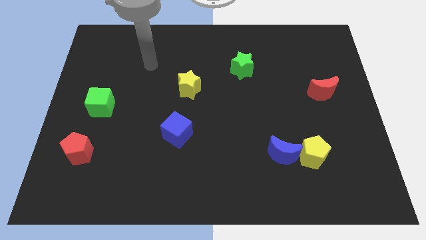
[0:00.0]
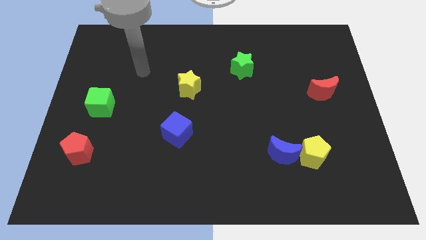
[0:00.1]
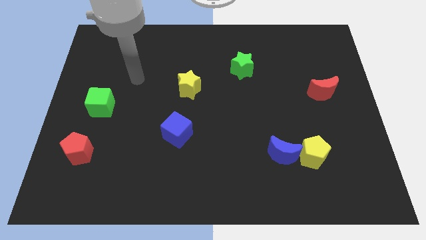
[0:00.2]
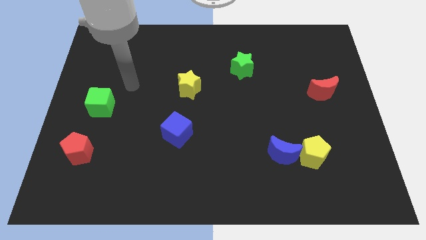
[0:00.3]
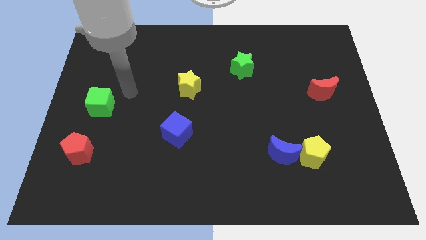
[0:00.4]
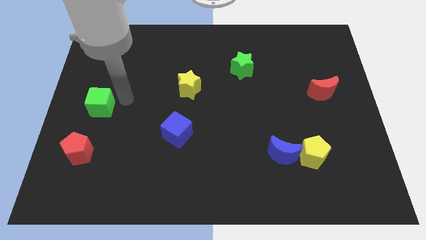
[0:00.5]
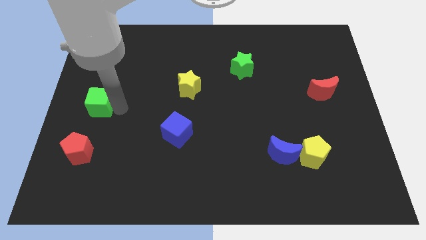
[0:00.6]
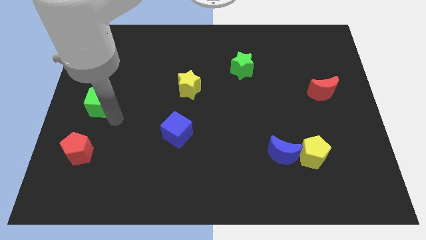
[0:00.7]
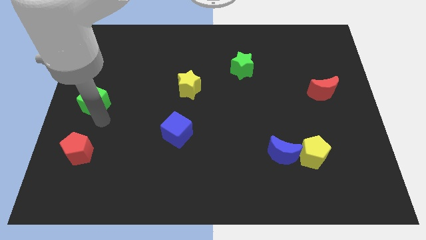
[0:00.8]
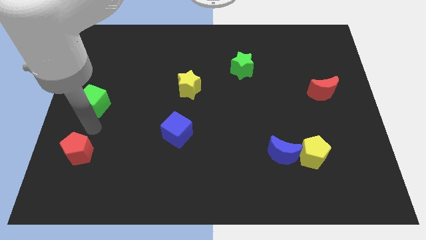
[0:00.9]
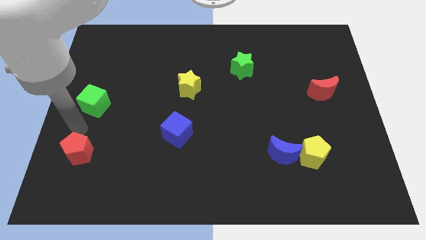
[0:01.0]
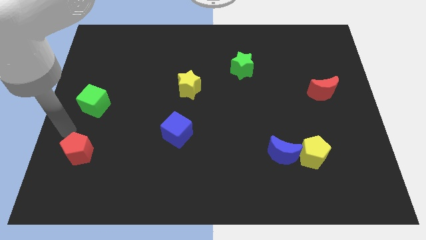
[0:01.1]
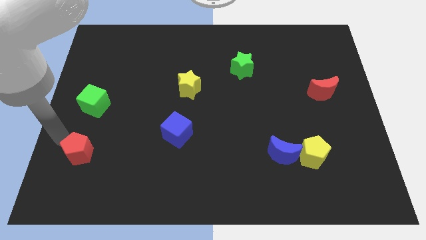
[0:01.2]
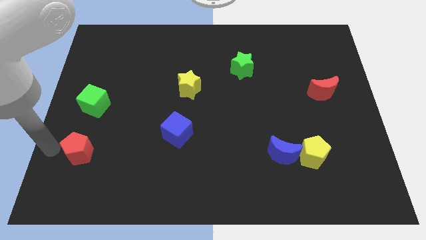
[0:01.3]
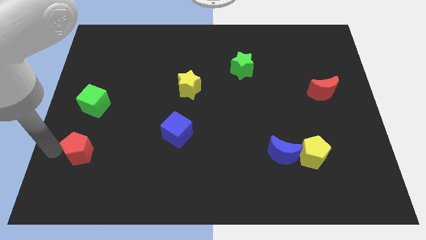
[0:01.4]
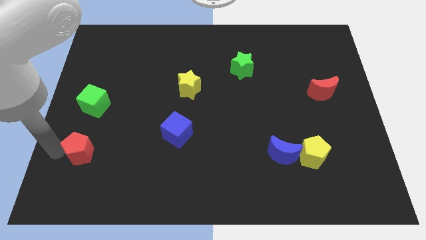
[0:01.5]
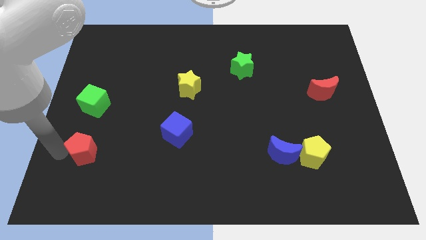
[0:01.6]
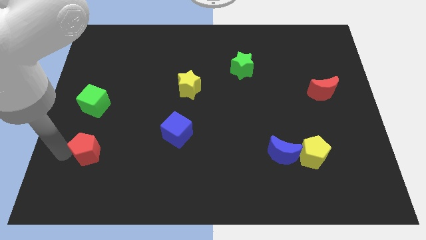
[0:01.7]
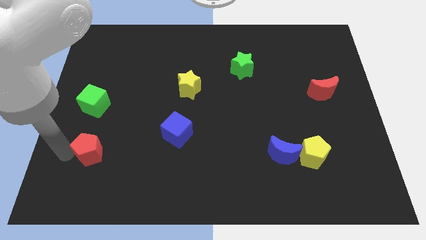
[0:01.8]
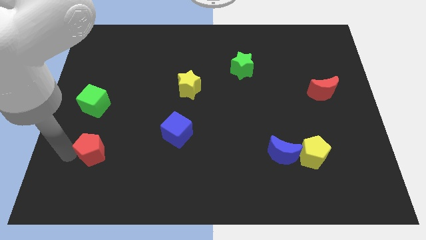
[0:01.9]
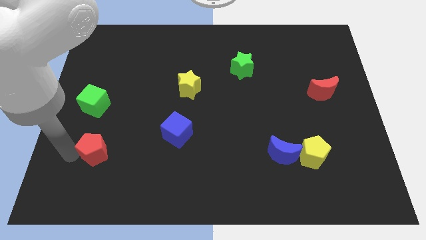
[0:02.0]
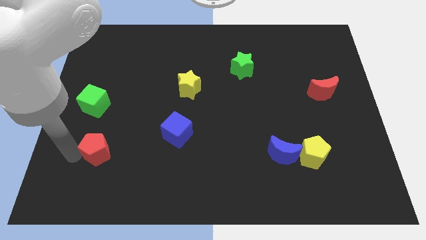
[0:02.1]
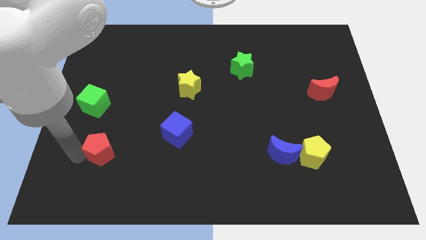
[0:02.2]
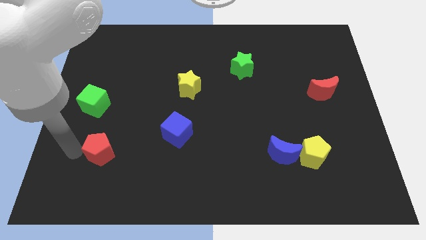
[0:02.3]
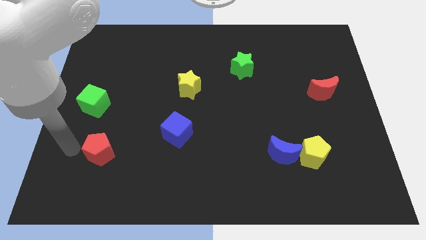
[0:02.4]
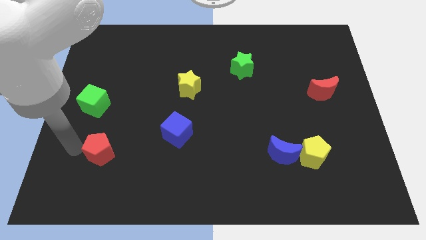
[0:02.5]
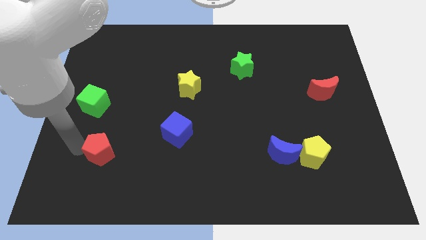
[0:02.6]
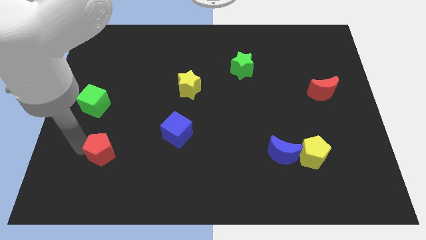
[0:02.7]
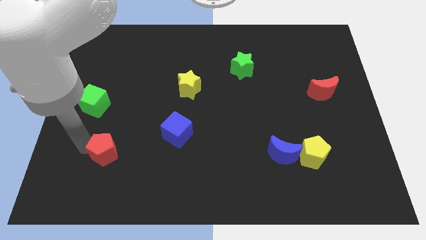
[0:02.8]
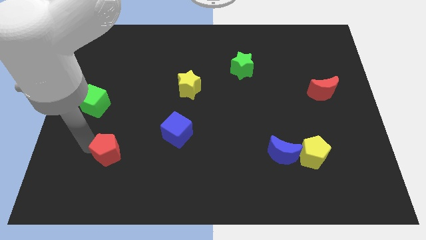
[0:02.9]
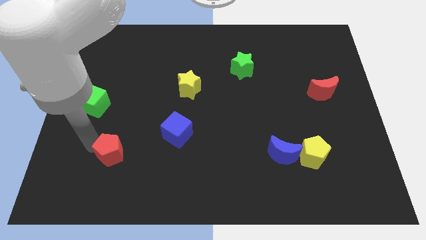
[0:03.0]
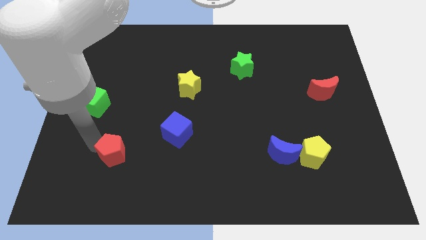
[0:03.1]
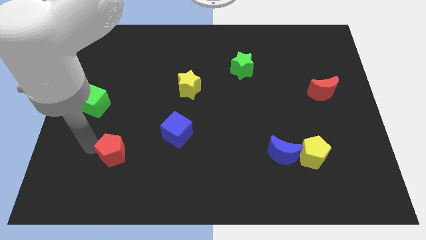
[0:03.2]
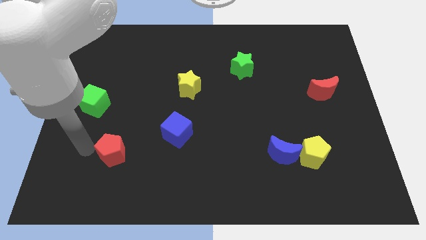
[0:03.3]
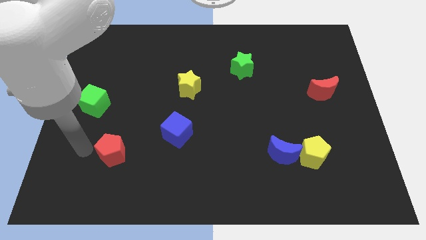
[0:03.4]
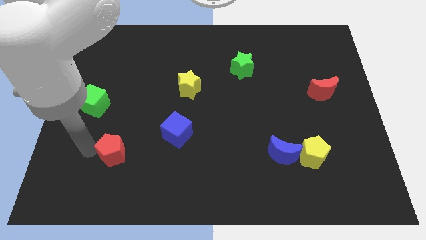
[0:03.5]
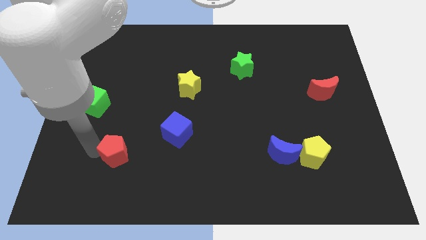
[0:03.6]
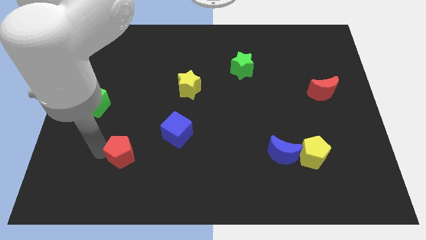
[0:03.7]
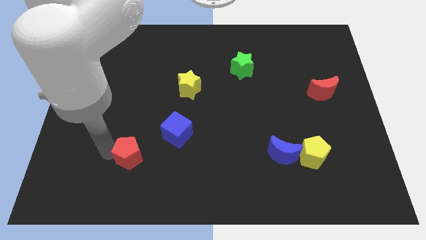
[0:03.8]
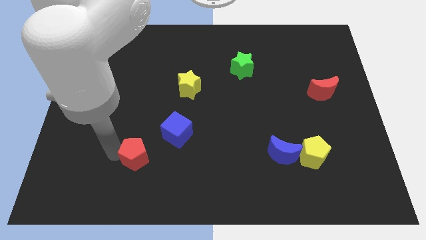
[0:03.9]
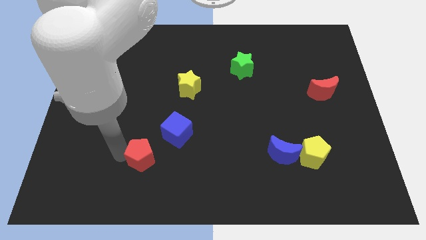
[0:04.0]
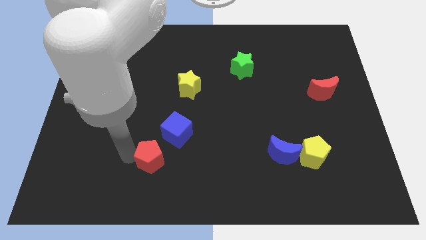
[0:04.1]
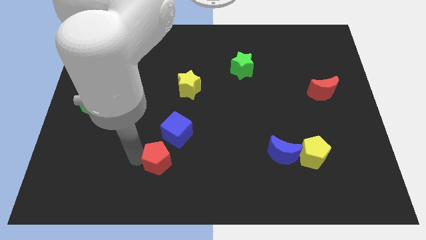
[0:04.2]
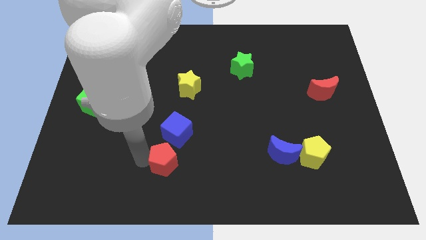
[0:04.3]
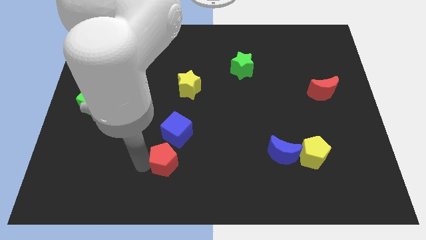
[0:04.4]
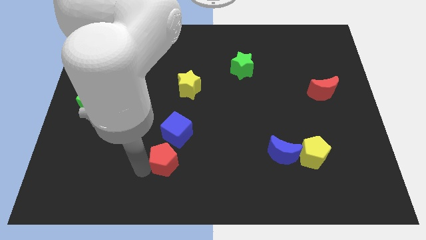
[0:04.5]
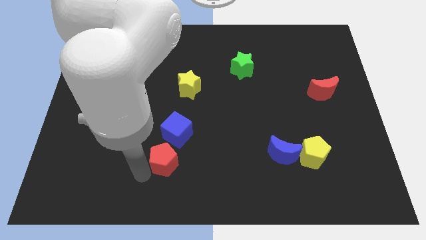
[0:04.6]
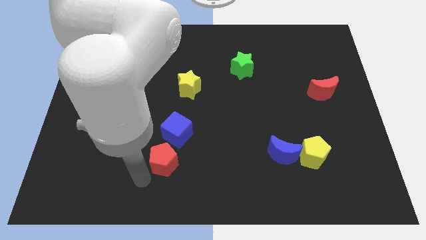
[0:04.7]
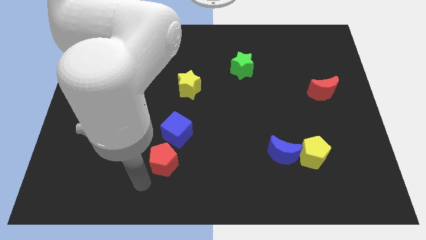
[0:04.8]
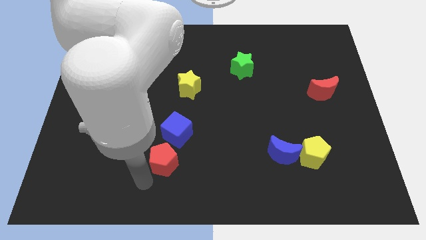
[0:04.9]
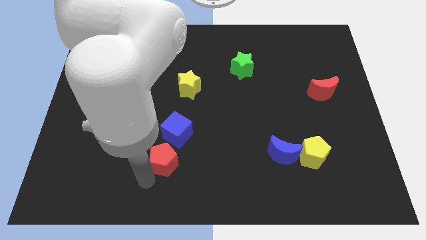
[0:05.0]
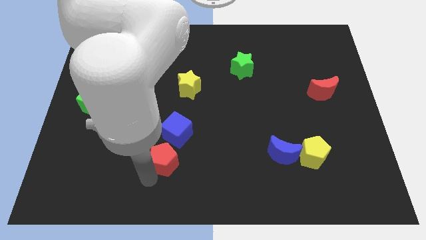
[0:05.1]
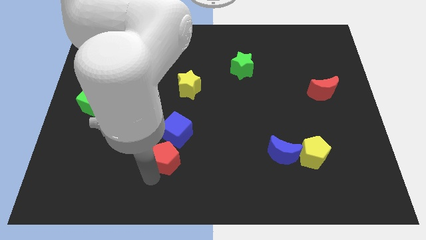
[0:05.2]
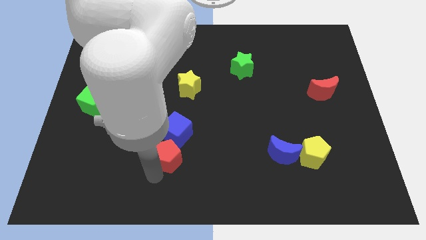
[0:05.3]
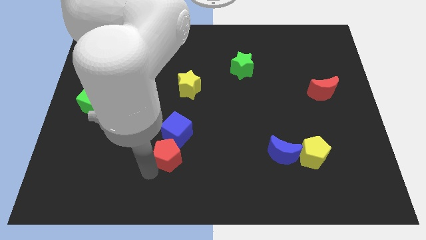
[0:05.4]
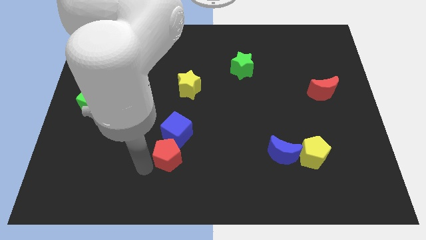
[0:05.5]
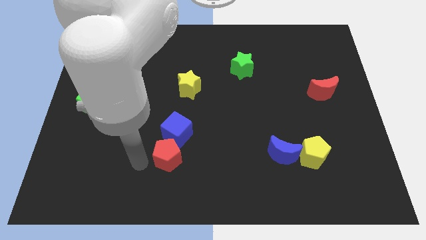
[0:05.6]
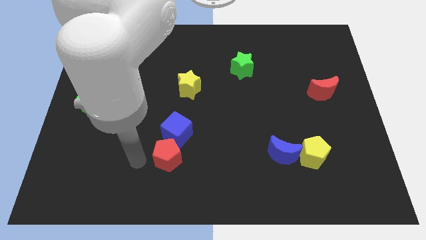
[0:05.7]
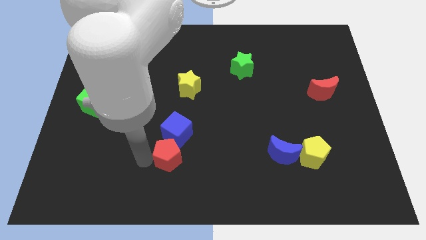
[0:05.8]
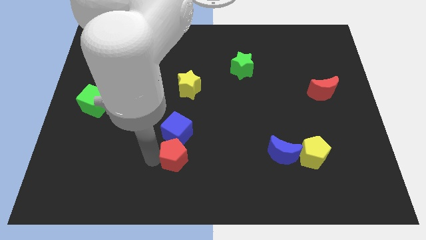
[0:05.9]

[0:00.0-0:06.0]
put the red pentagon to the bottom right of the blue cube

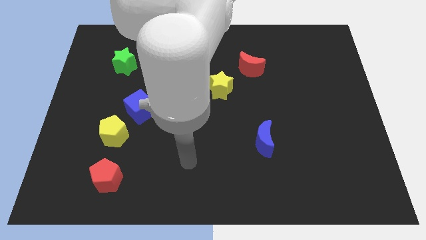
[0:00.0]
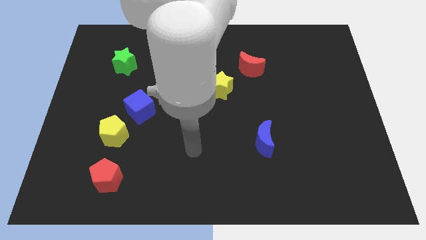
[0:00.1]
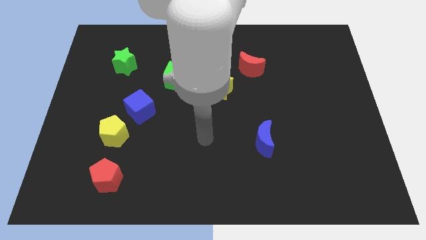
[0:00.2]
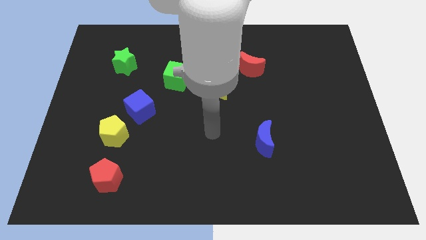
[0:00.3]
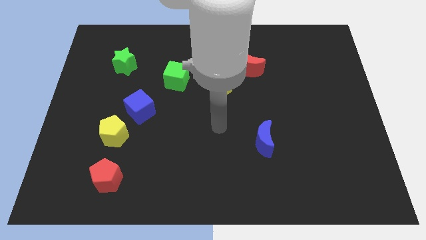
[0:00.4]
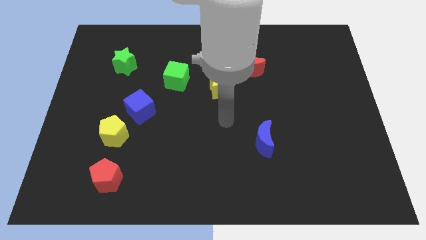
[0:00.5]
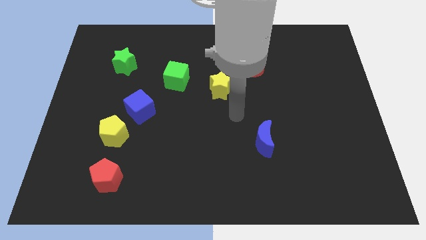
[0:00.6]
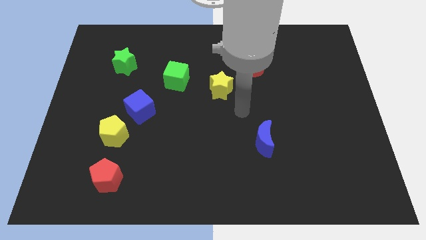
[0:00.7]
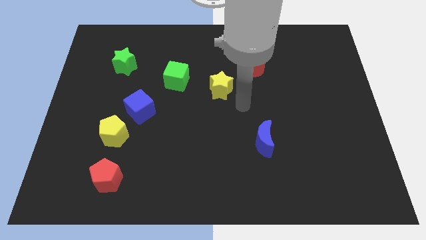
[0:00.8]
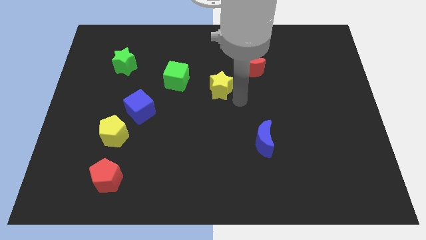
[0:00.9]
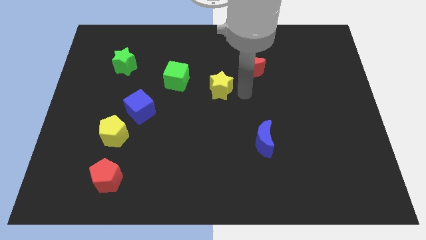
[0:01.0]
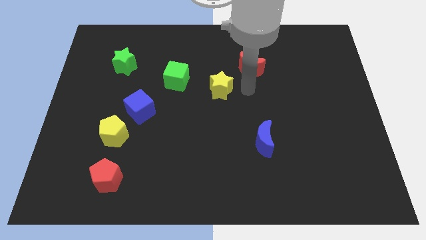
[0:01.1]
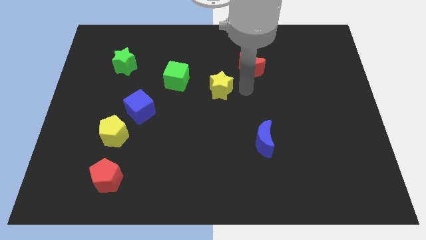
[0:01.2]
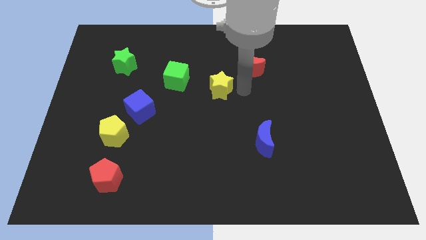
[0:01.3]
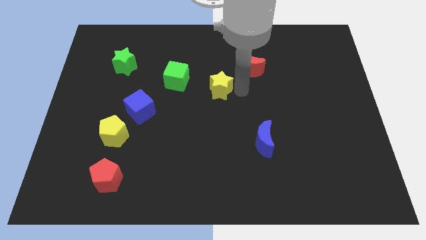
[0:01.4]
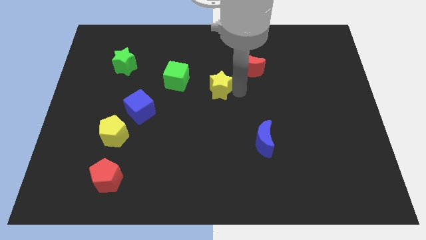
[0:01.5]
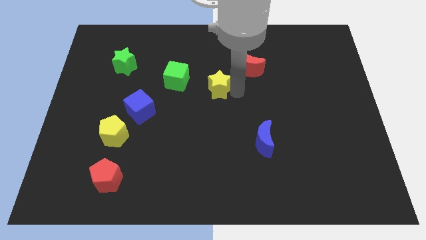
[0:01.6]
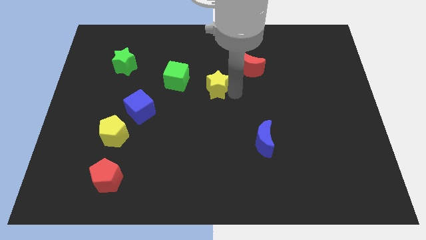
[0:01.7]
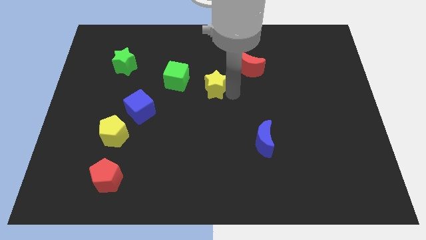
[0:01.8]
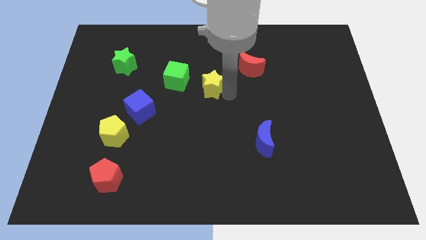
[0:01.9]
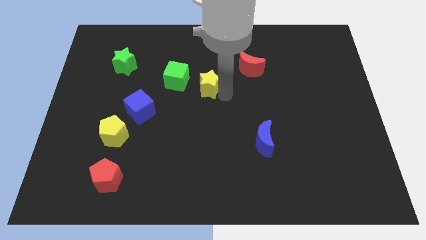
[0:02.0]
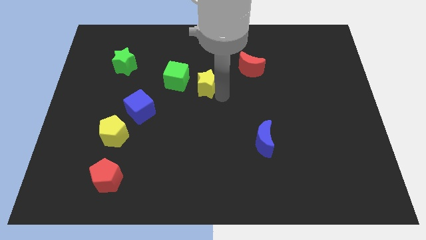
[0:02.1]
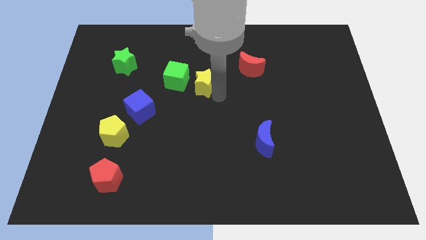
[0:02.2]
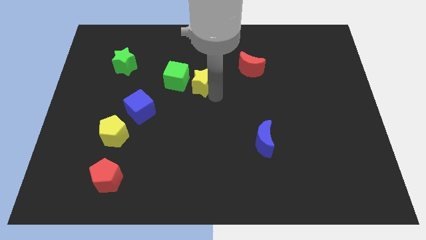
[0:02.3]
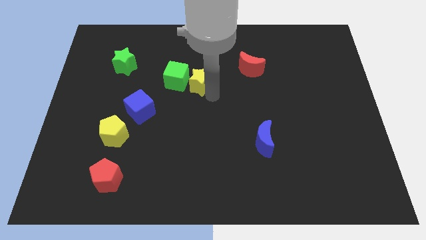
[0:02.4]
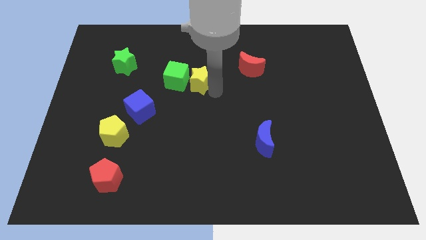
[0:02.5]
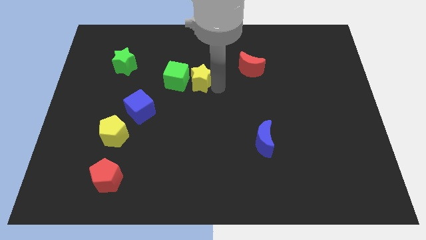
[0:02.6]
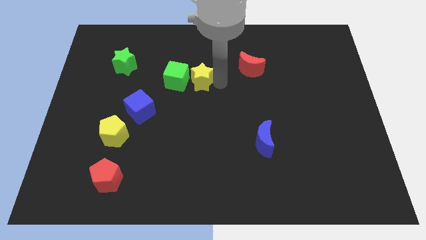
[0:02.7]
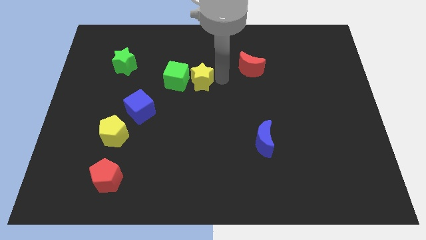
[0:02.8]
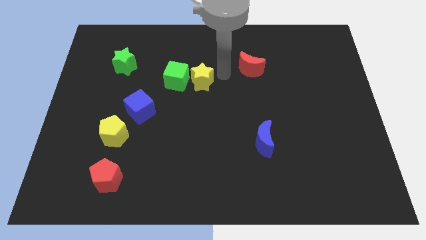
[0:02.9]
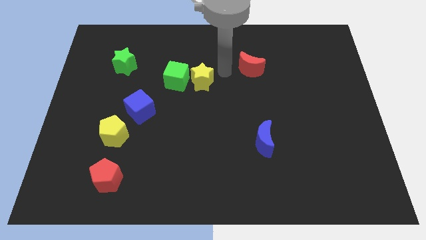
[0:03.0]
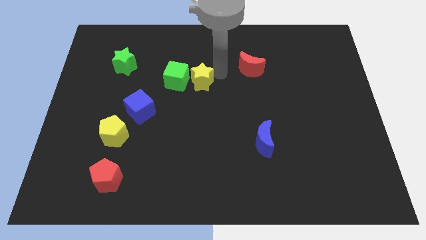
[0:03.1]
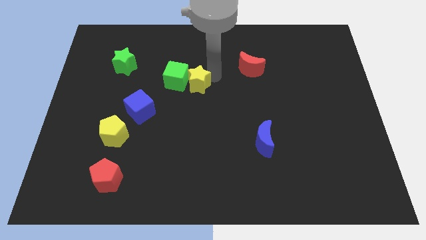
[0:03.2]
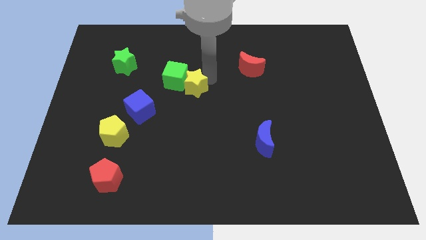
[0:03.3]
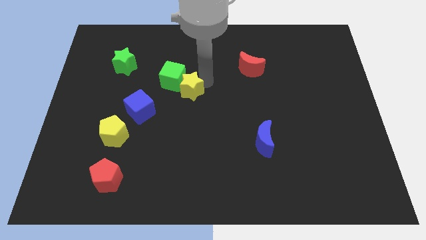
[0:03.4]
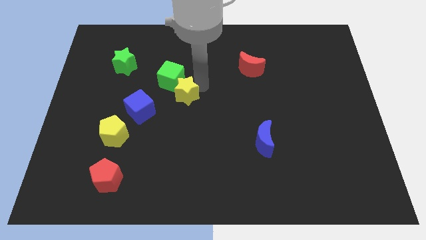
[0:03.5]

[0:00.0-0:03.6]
move the yellow star to the top right side of the blue cube
